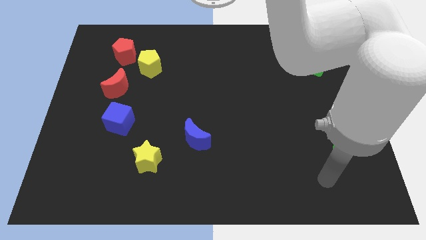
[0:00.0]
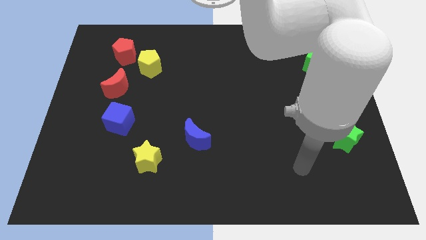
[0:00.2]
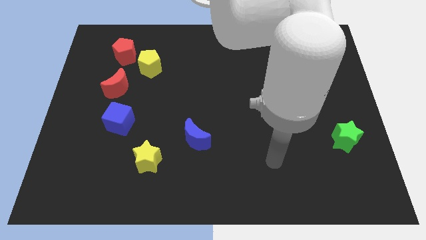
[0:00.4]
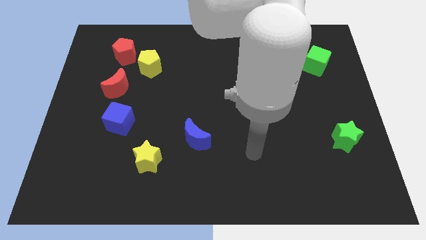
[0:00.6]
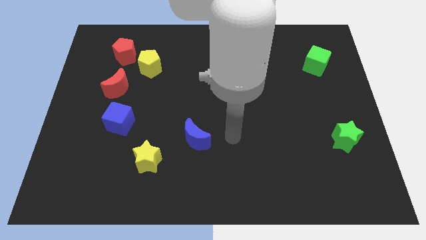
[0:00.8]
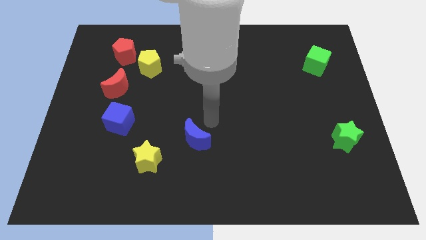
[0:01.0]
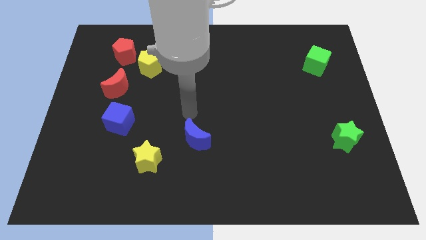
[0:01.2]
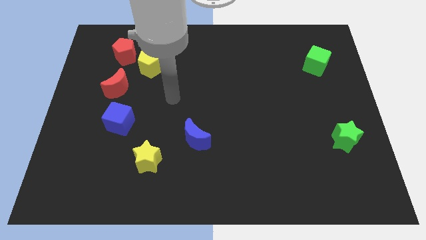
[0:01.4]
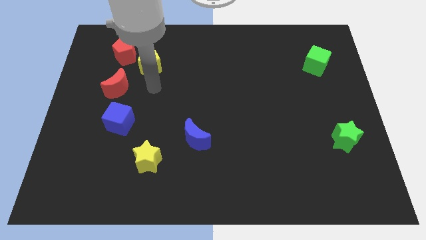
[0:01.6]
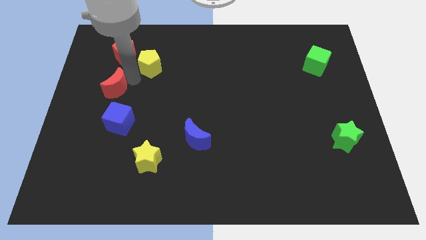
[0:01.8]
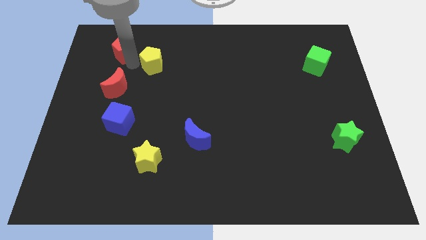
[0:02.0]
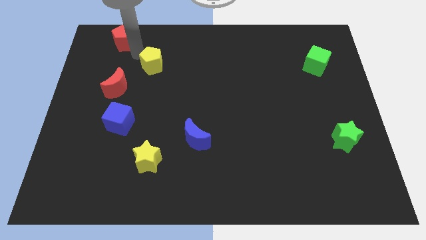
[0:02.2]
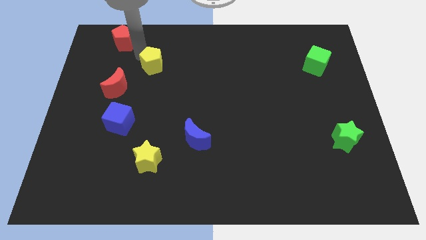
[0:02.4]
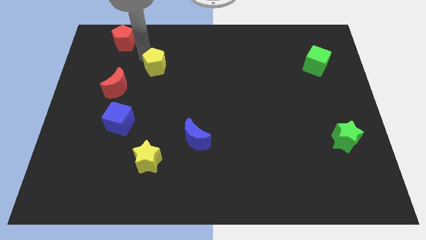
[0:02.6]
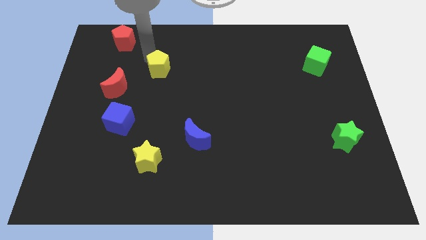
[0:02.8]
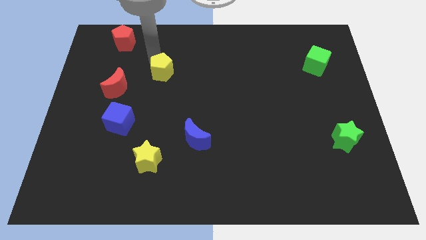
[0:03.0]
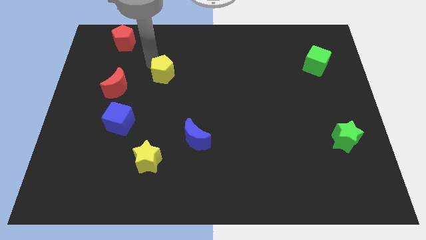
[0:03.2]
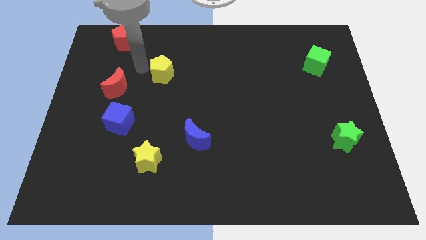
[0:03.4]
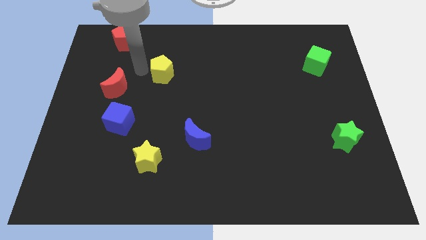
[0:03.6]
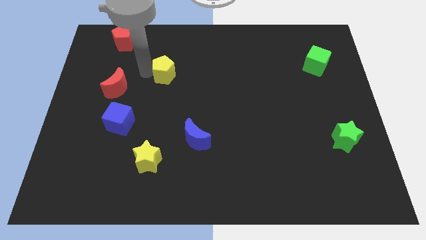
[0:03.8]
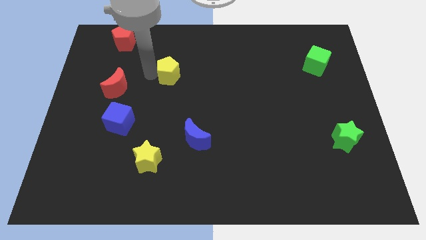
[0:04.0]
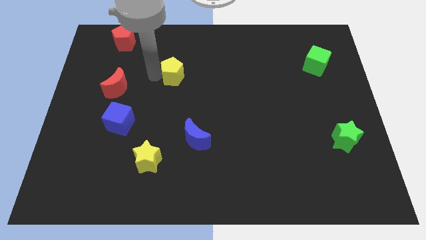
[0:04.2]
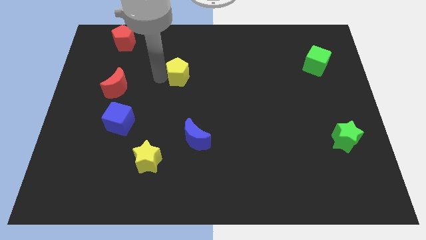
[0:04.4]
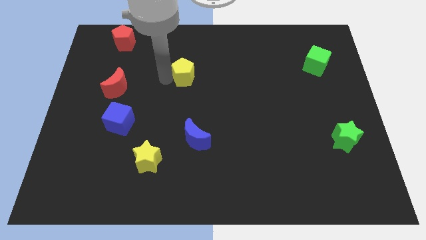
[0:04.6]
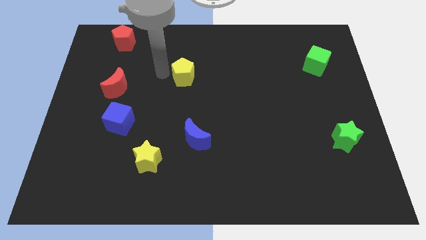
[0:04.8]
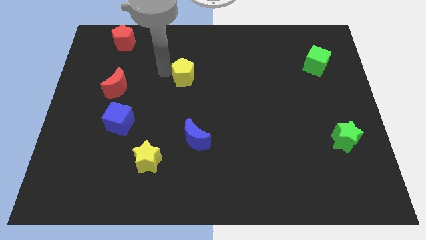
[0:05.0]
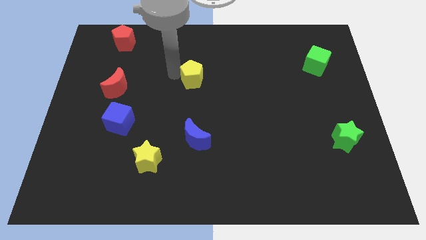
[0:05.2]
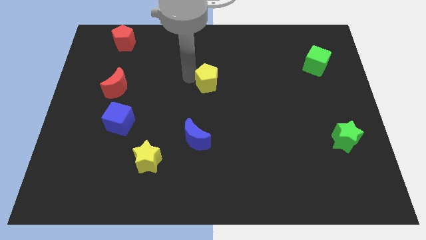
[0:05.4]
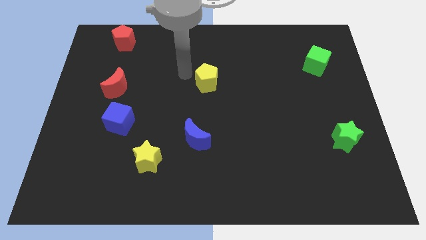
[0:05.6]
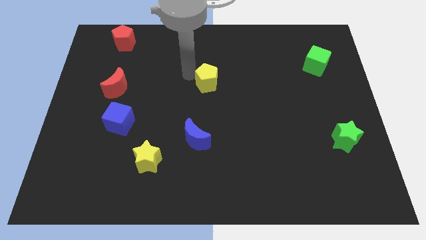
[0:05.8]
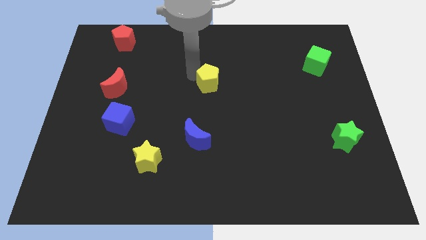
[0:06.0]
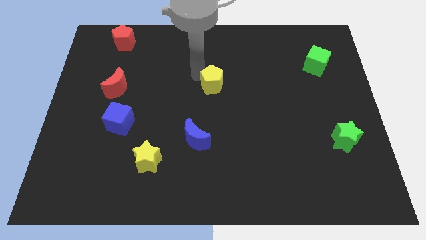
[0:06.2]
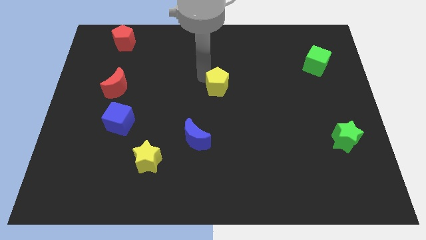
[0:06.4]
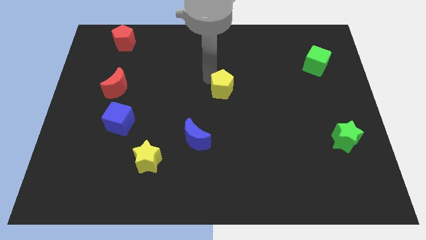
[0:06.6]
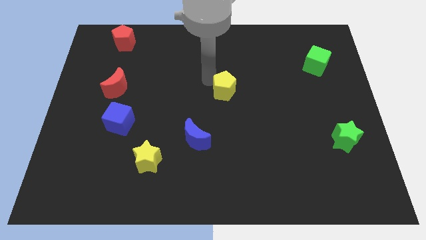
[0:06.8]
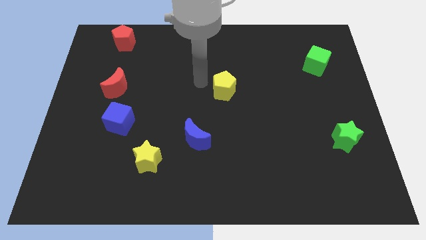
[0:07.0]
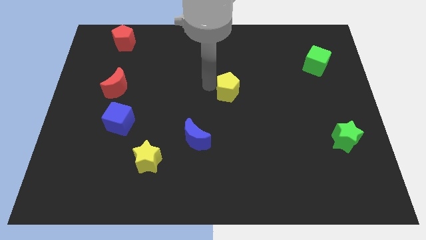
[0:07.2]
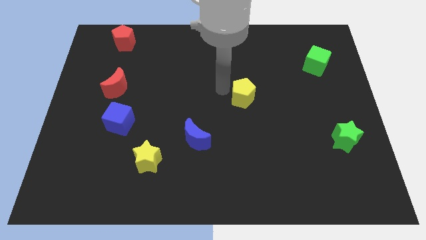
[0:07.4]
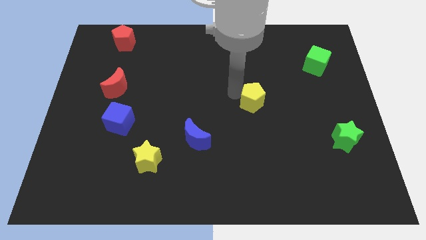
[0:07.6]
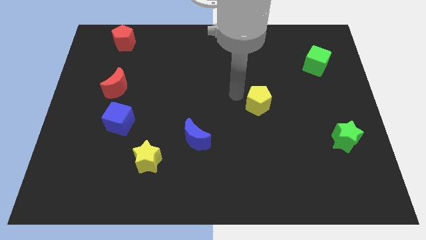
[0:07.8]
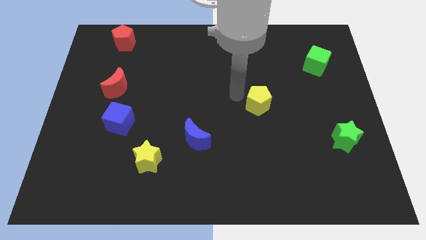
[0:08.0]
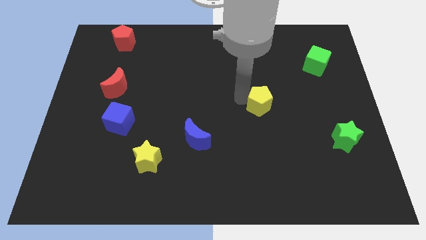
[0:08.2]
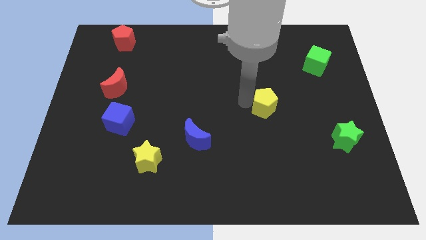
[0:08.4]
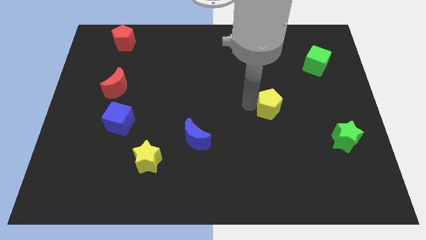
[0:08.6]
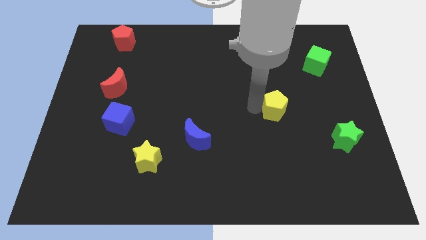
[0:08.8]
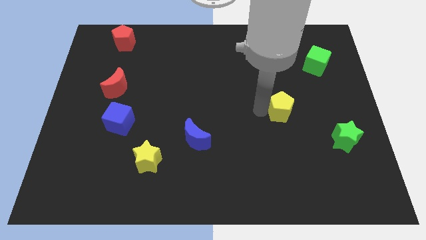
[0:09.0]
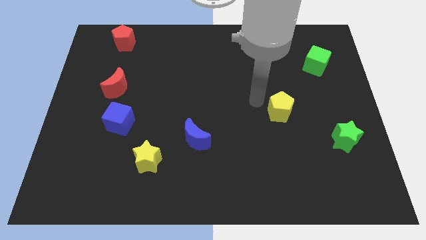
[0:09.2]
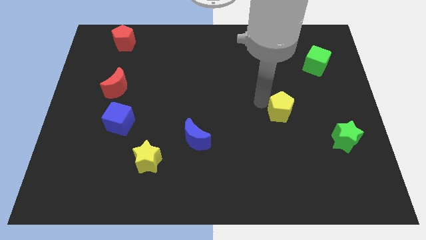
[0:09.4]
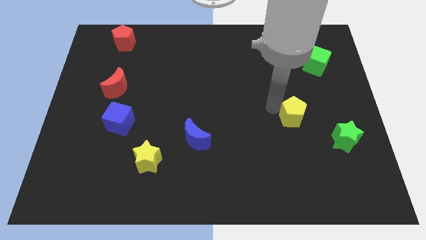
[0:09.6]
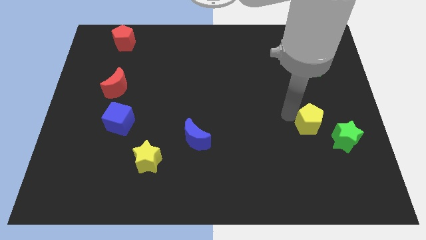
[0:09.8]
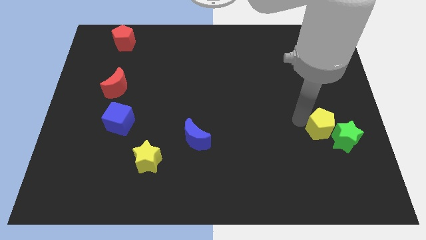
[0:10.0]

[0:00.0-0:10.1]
push the yellow pentagon to the green star

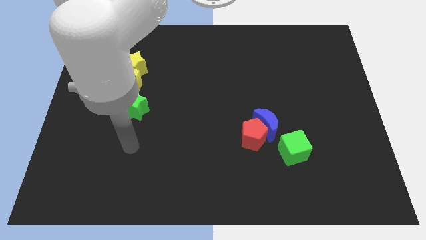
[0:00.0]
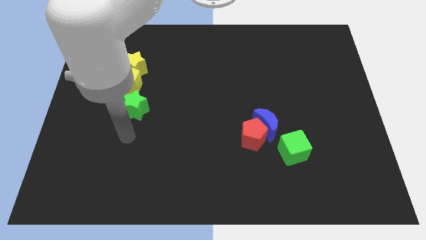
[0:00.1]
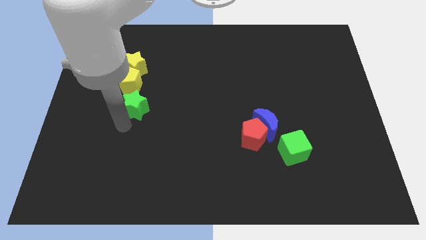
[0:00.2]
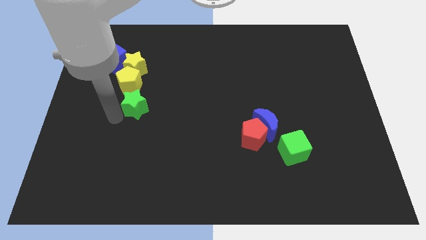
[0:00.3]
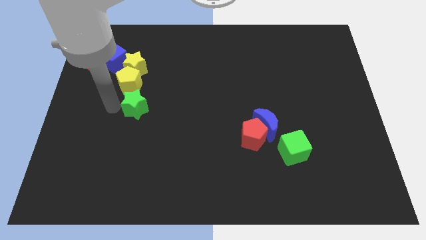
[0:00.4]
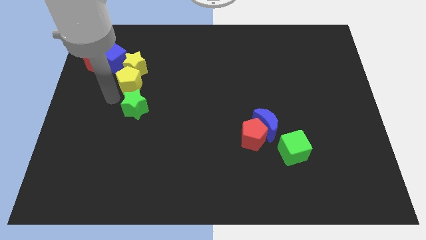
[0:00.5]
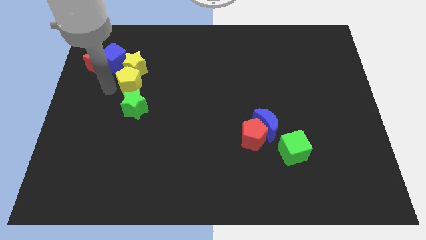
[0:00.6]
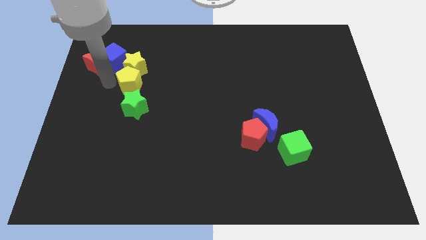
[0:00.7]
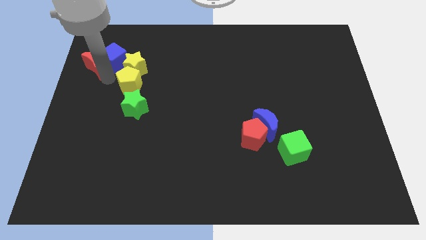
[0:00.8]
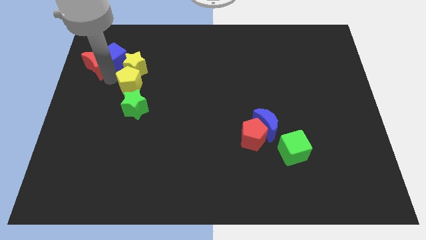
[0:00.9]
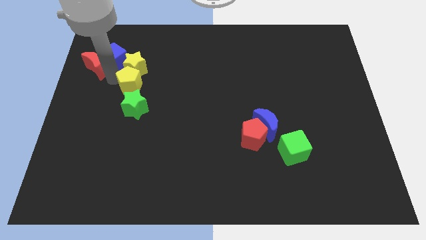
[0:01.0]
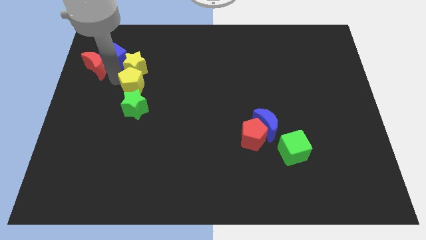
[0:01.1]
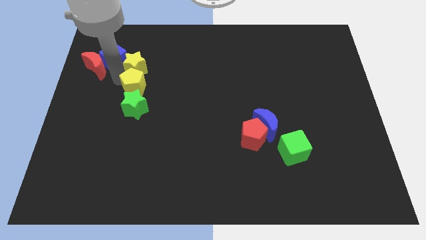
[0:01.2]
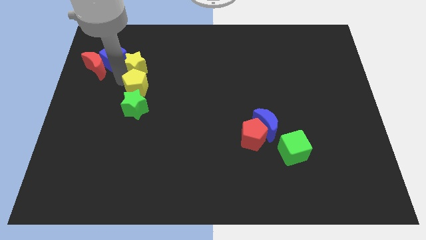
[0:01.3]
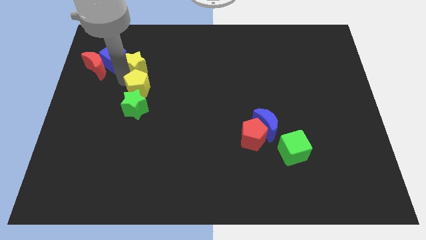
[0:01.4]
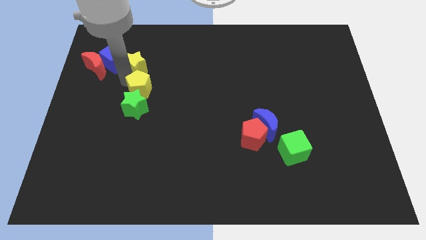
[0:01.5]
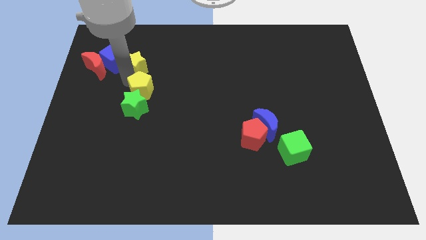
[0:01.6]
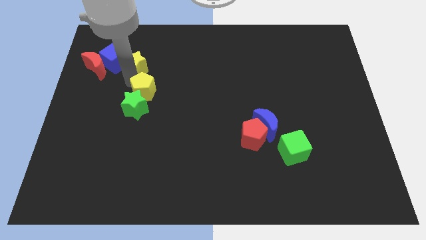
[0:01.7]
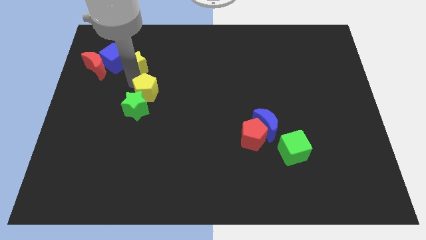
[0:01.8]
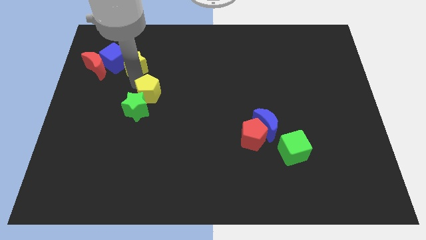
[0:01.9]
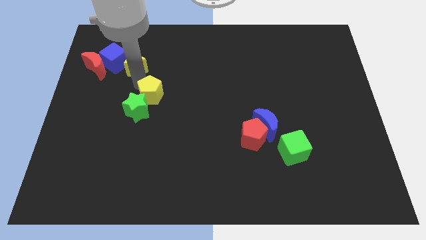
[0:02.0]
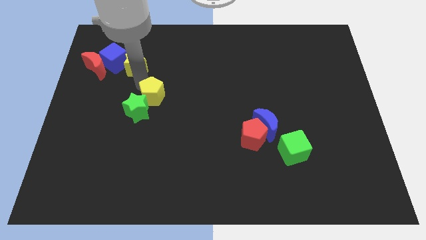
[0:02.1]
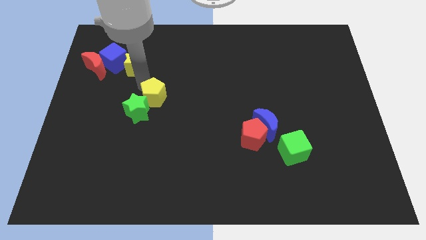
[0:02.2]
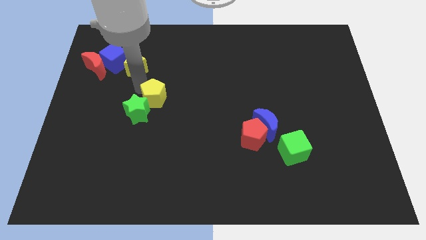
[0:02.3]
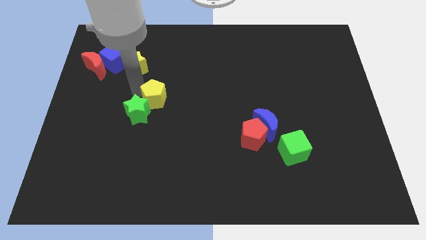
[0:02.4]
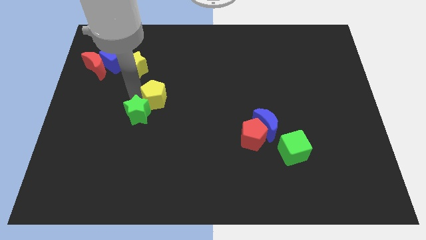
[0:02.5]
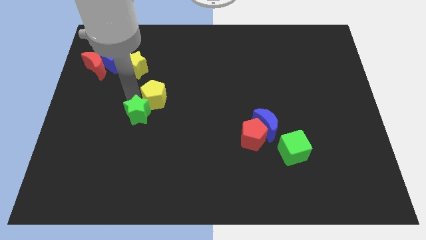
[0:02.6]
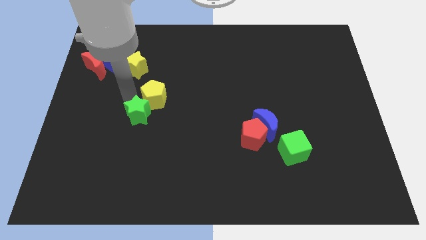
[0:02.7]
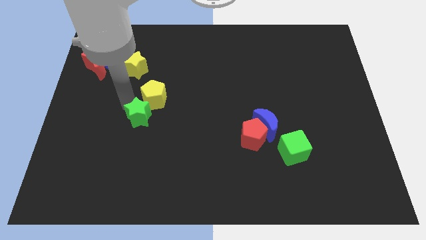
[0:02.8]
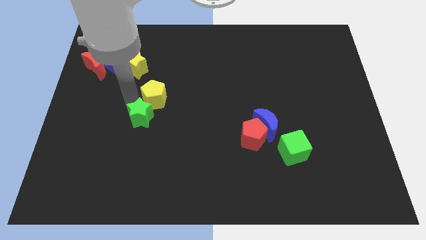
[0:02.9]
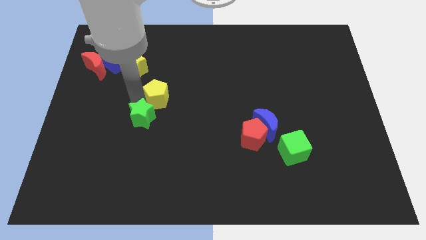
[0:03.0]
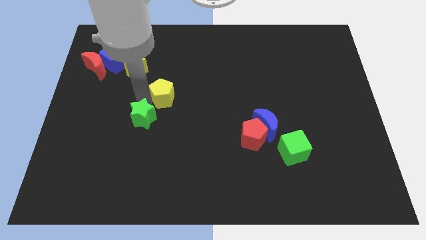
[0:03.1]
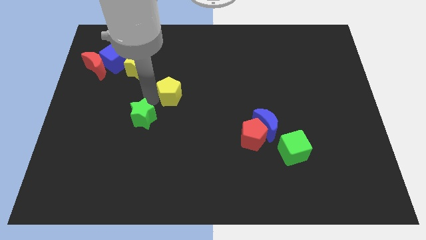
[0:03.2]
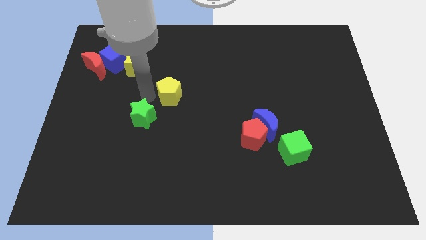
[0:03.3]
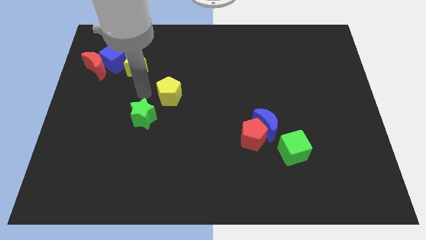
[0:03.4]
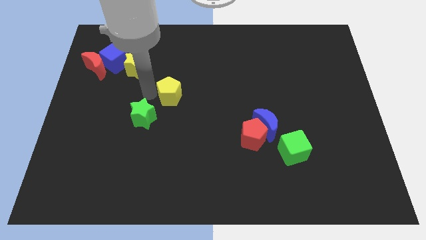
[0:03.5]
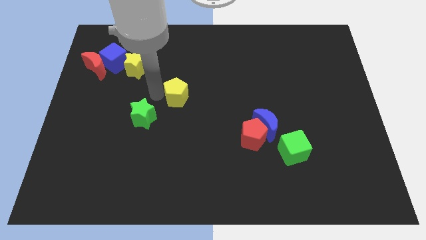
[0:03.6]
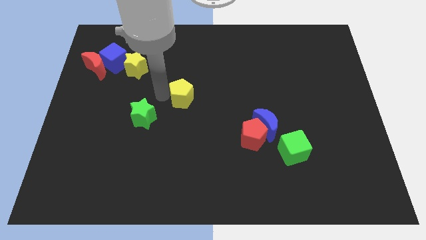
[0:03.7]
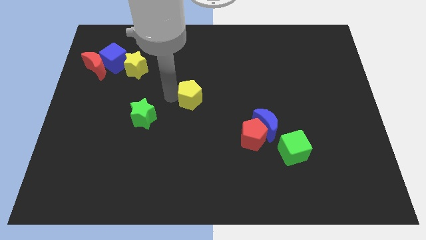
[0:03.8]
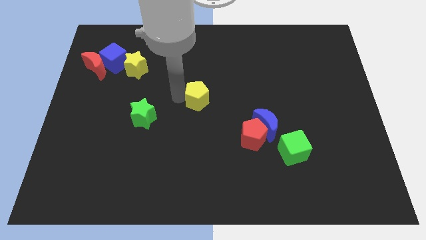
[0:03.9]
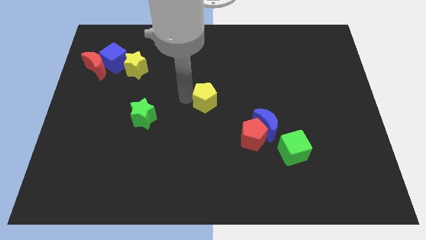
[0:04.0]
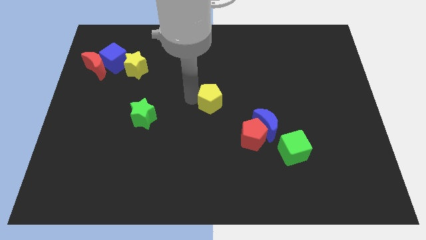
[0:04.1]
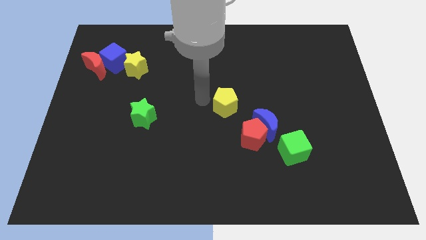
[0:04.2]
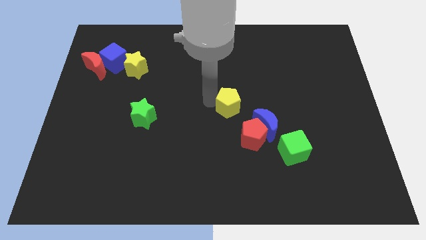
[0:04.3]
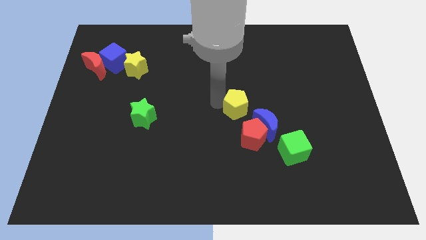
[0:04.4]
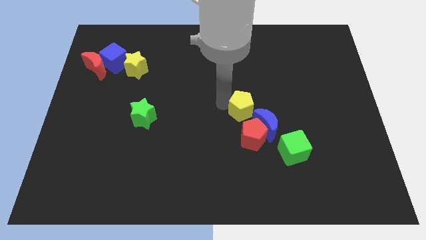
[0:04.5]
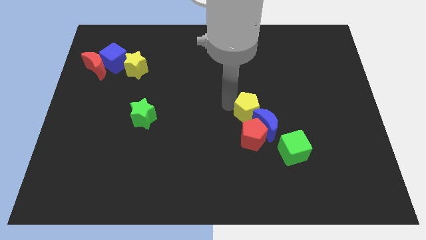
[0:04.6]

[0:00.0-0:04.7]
push the yellow pentagon towards the blue moon
